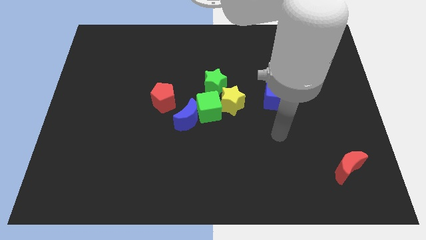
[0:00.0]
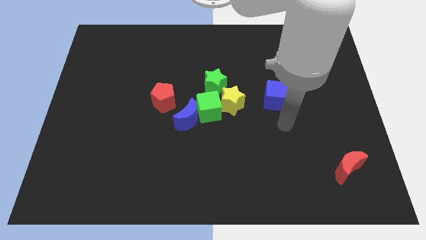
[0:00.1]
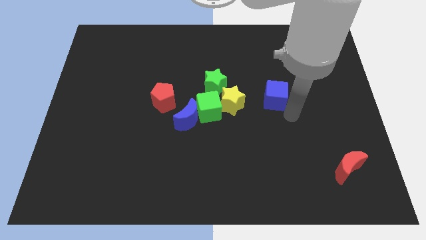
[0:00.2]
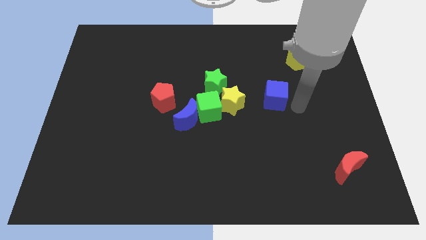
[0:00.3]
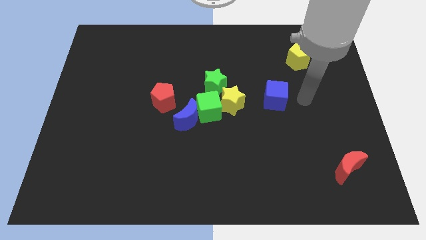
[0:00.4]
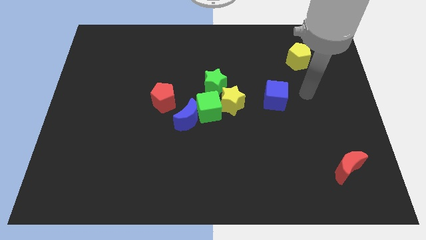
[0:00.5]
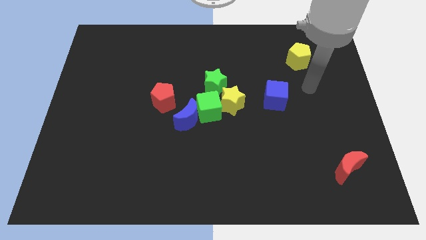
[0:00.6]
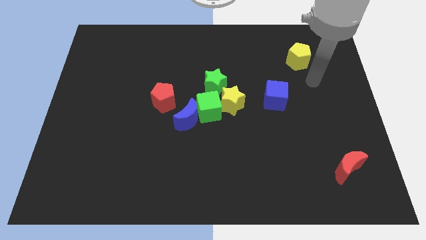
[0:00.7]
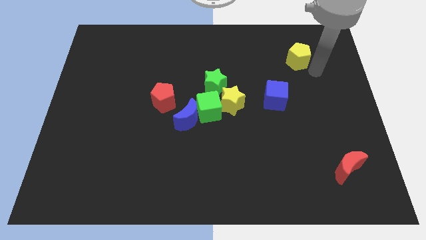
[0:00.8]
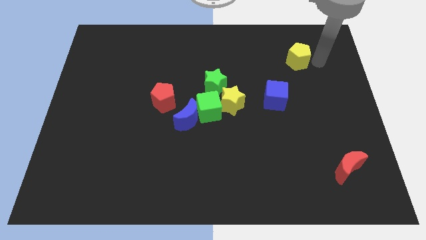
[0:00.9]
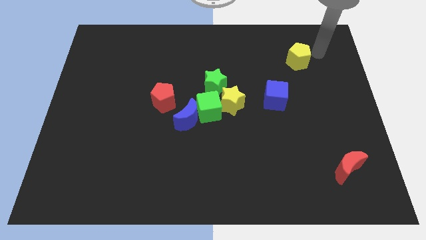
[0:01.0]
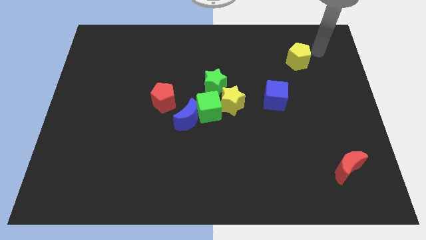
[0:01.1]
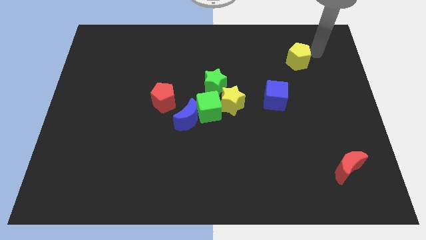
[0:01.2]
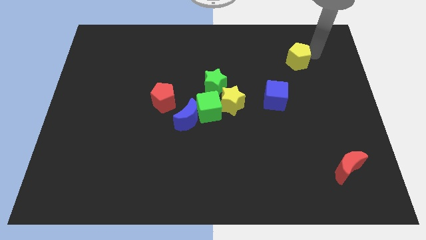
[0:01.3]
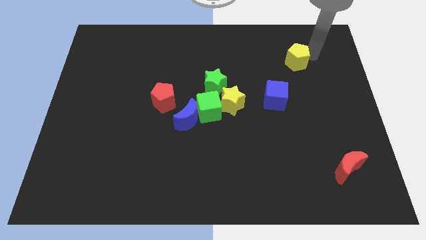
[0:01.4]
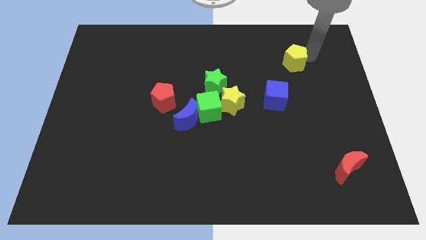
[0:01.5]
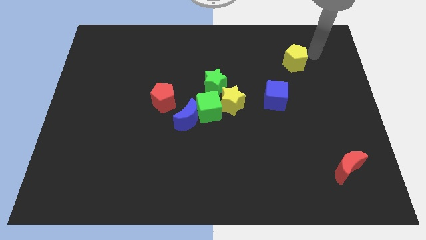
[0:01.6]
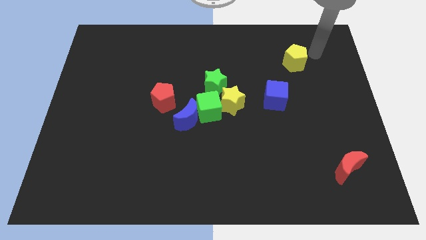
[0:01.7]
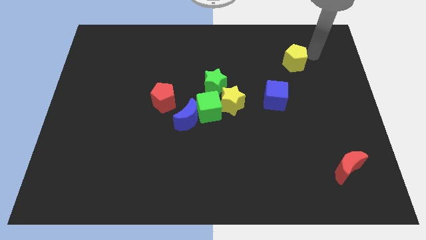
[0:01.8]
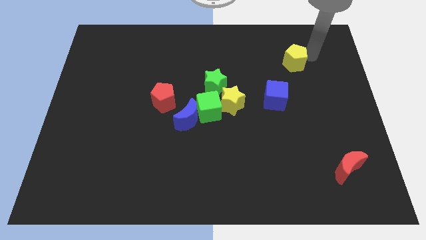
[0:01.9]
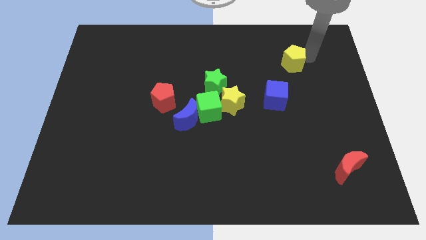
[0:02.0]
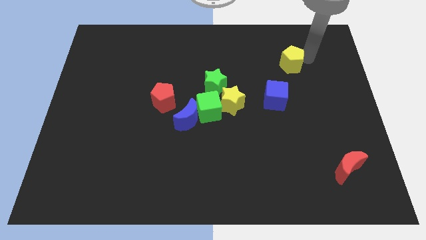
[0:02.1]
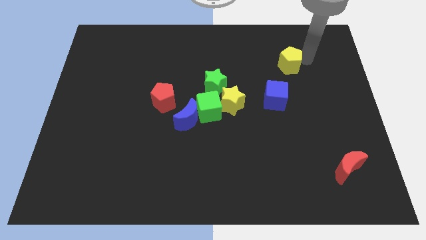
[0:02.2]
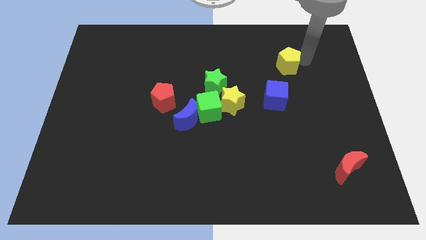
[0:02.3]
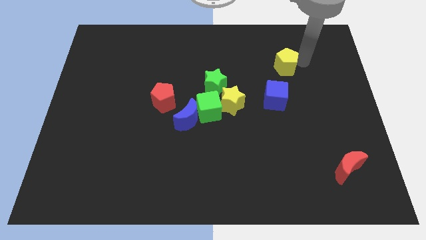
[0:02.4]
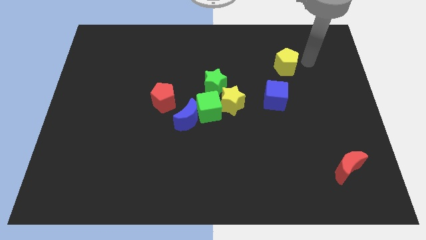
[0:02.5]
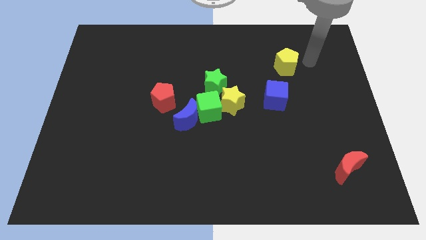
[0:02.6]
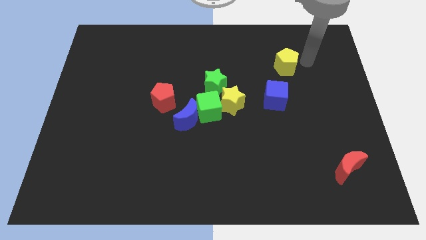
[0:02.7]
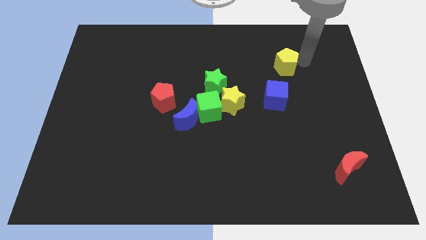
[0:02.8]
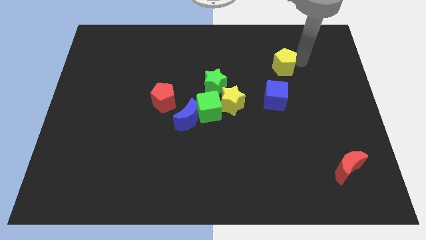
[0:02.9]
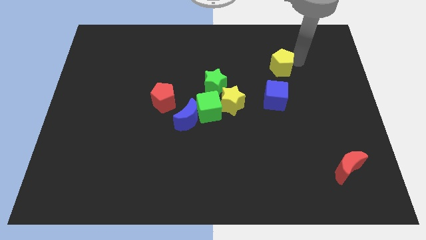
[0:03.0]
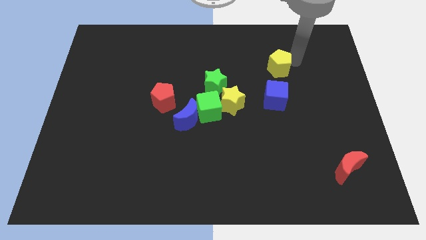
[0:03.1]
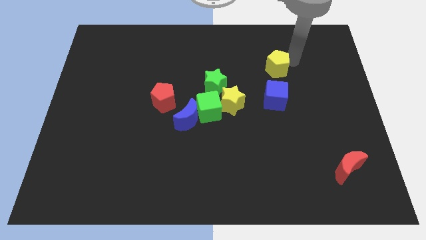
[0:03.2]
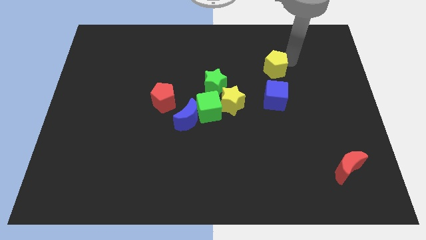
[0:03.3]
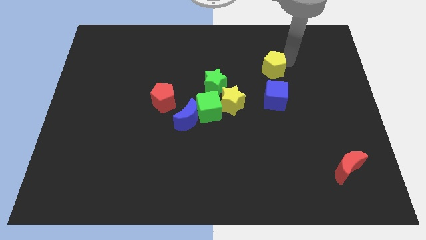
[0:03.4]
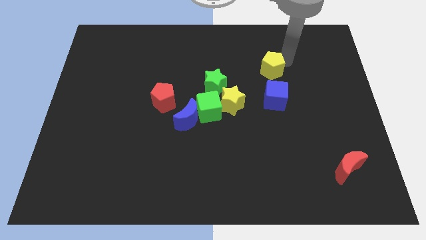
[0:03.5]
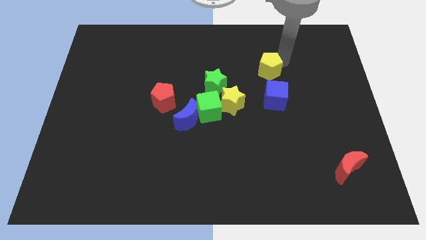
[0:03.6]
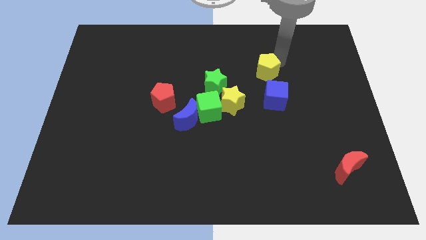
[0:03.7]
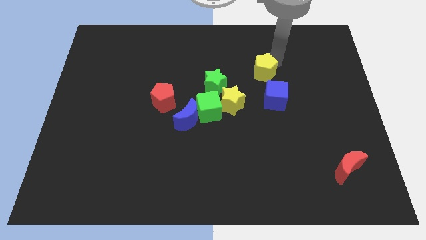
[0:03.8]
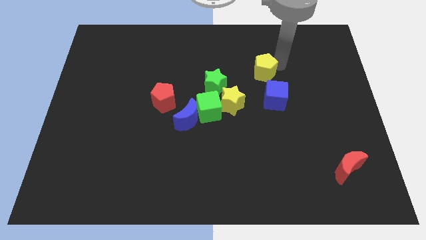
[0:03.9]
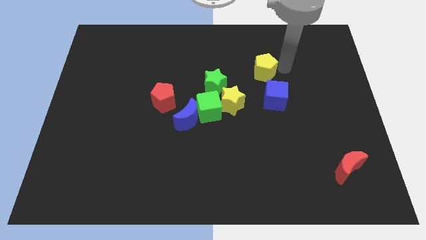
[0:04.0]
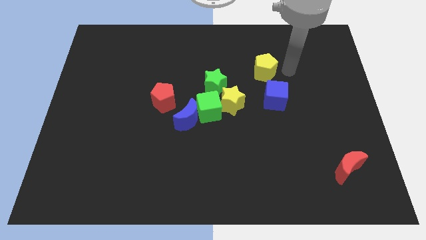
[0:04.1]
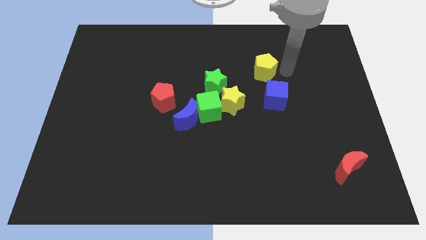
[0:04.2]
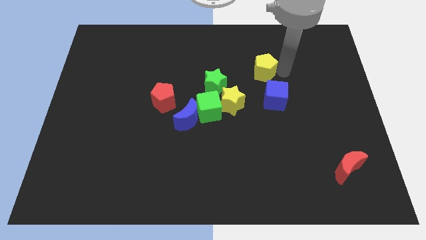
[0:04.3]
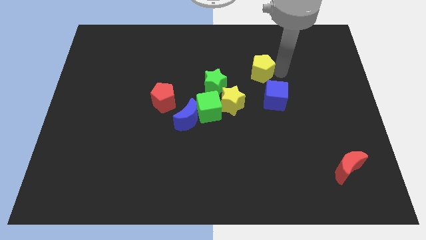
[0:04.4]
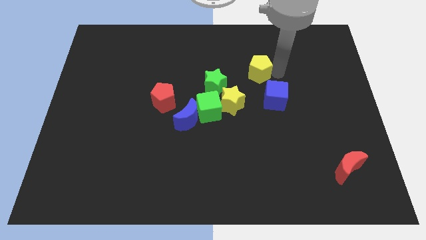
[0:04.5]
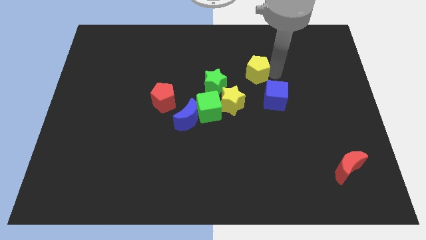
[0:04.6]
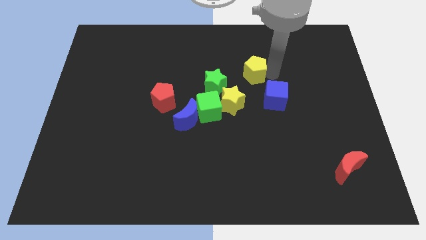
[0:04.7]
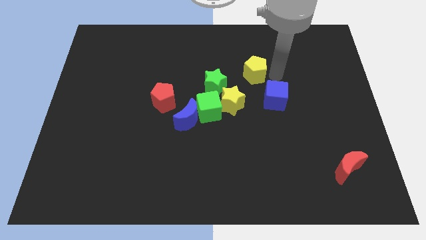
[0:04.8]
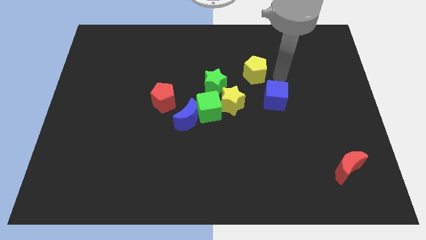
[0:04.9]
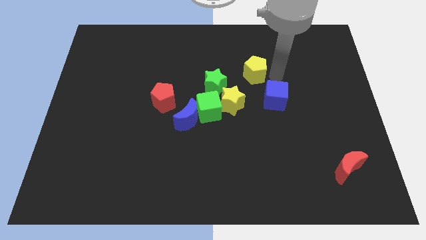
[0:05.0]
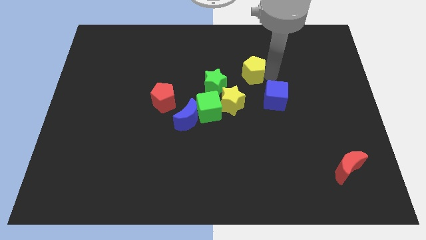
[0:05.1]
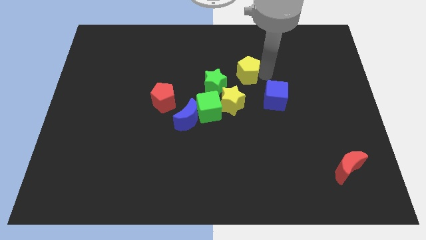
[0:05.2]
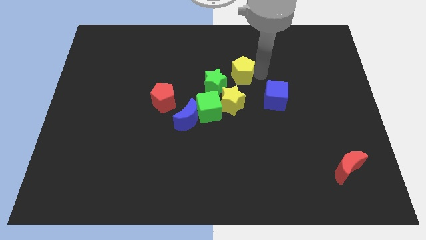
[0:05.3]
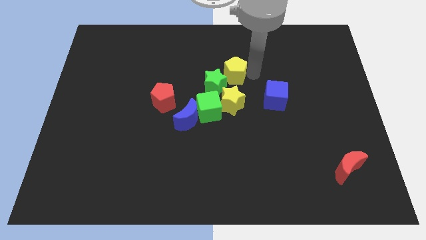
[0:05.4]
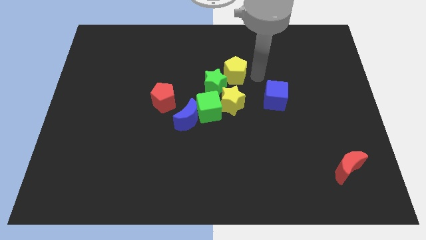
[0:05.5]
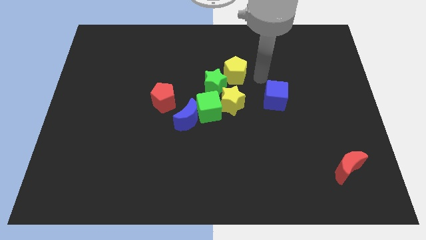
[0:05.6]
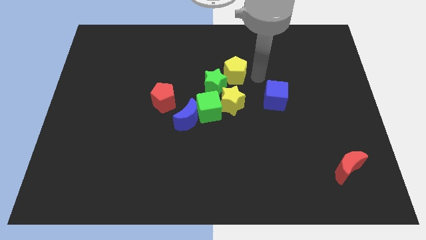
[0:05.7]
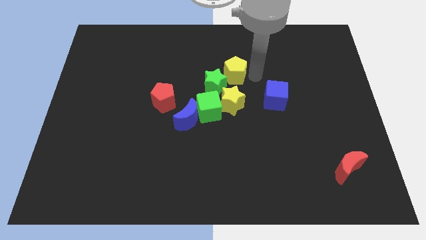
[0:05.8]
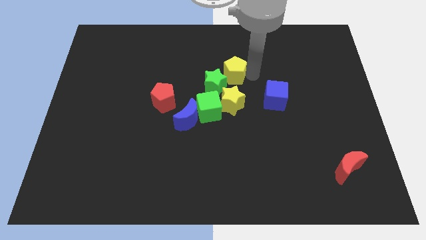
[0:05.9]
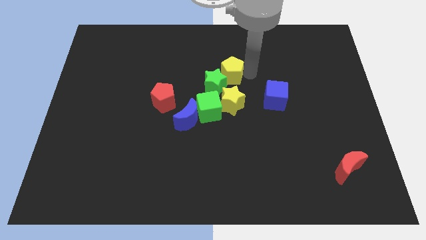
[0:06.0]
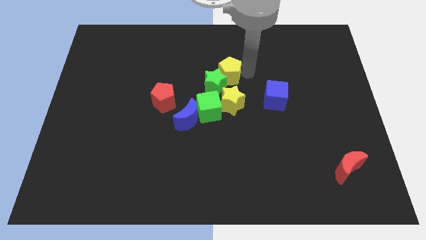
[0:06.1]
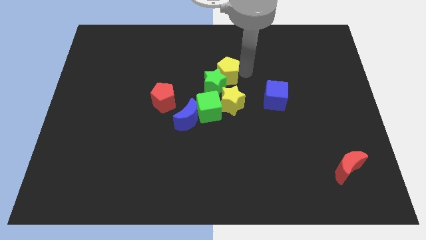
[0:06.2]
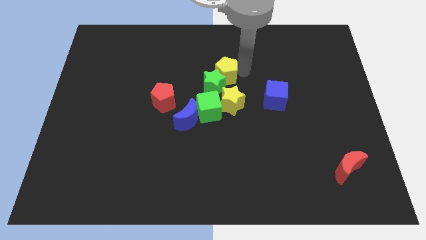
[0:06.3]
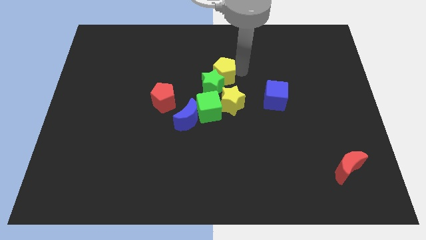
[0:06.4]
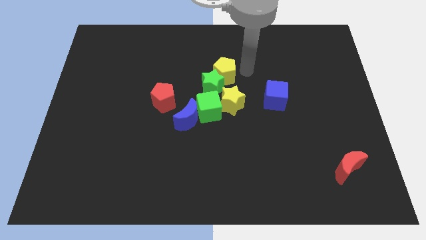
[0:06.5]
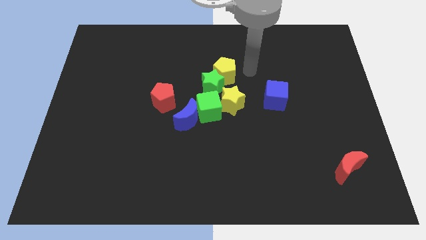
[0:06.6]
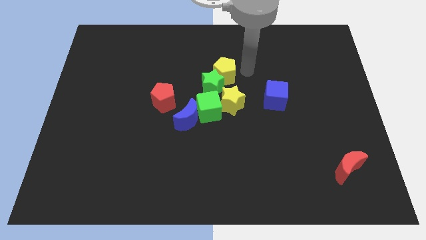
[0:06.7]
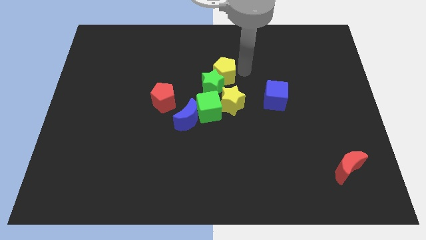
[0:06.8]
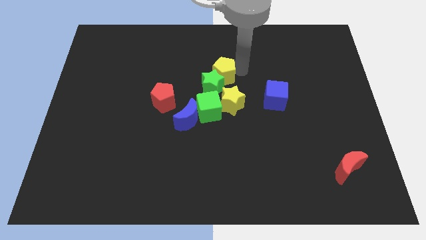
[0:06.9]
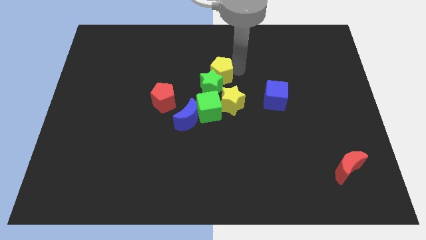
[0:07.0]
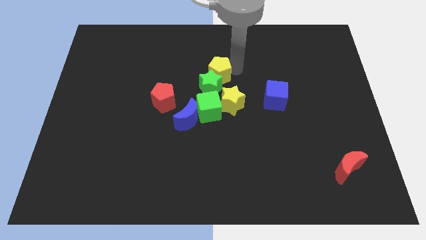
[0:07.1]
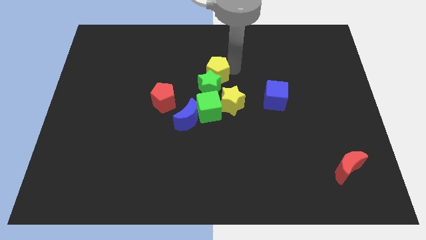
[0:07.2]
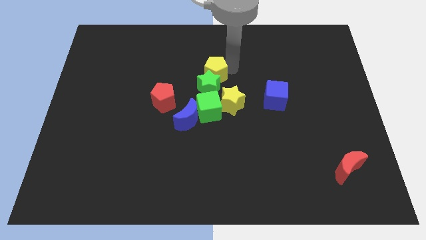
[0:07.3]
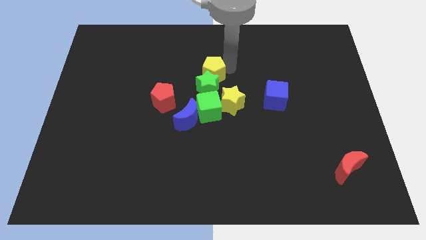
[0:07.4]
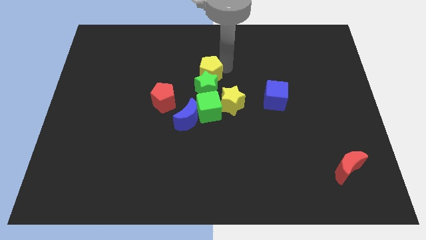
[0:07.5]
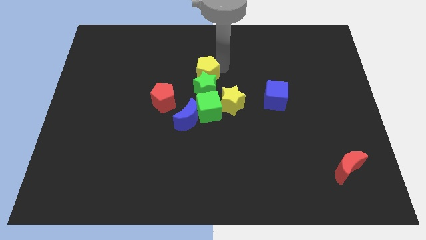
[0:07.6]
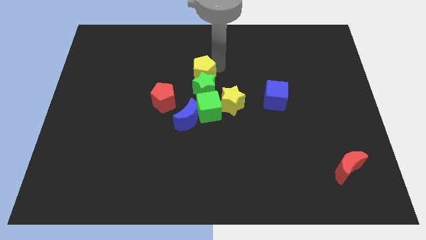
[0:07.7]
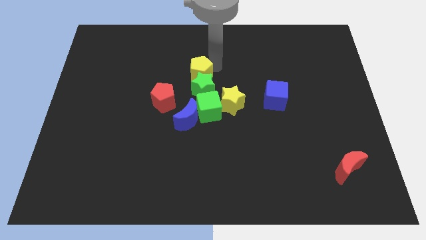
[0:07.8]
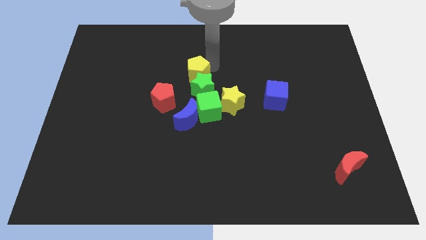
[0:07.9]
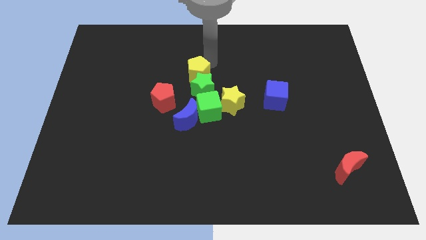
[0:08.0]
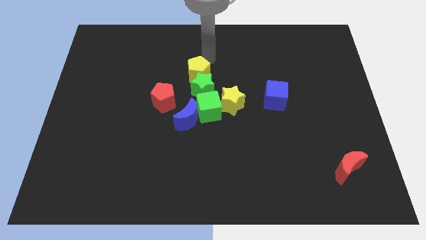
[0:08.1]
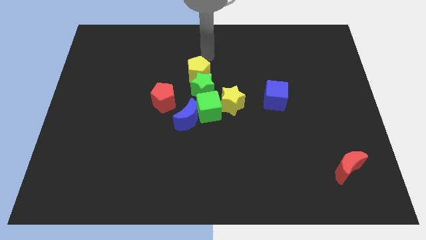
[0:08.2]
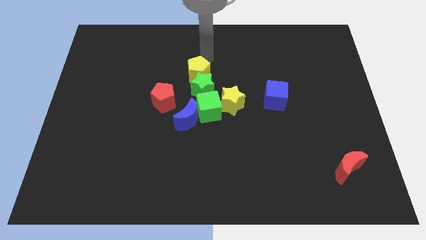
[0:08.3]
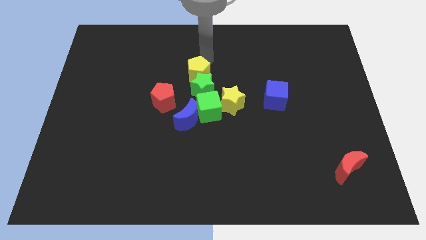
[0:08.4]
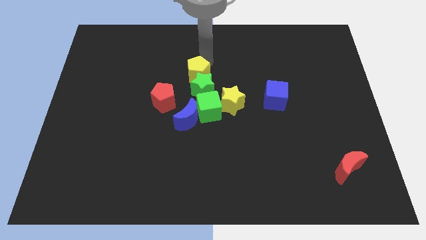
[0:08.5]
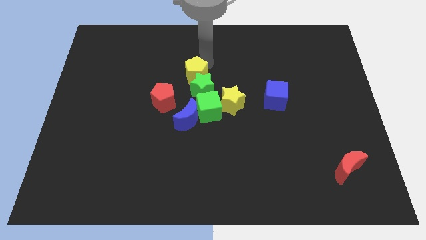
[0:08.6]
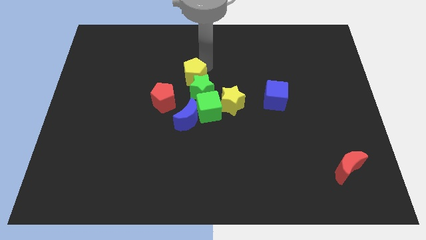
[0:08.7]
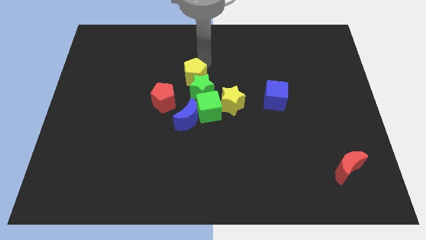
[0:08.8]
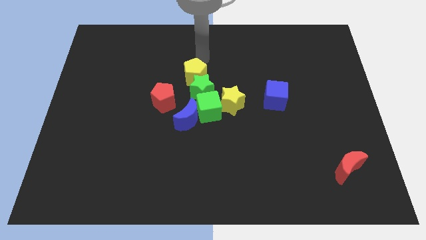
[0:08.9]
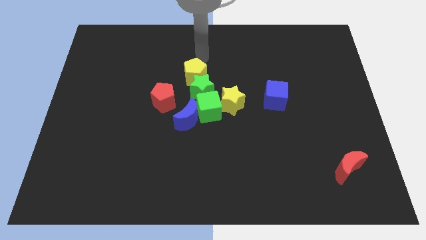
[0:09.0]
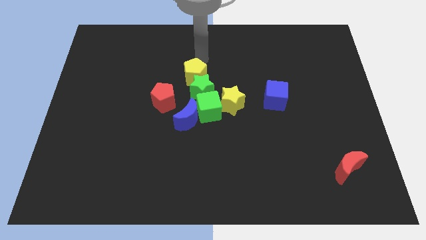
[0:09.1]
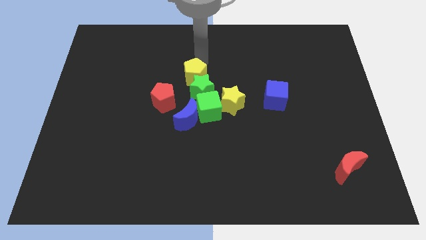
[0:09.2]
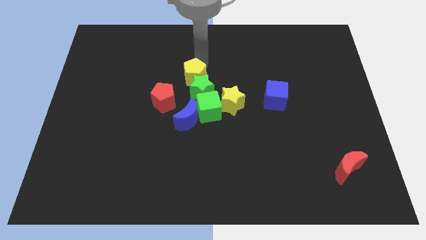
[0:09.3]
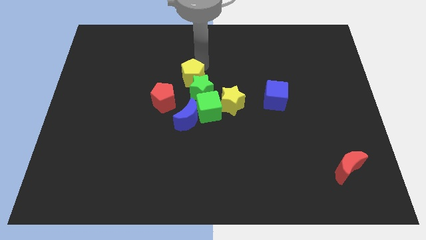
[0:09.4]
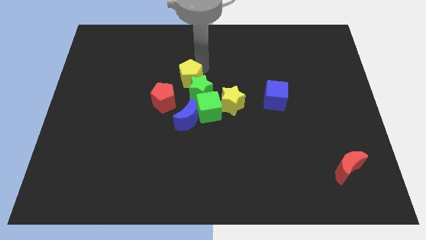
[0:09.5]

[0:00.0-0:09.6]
push the yellow pentagon diagonally up and to the left of the green cube
